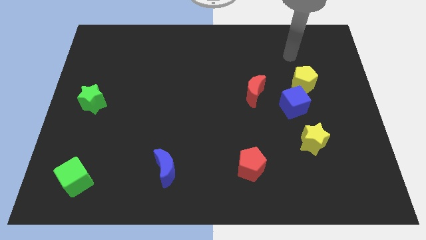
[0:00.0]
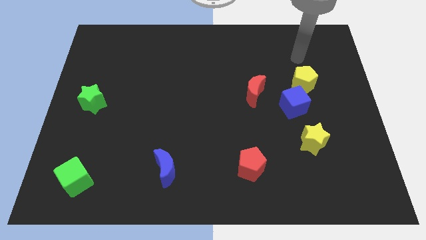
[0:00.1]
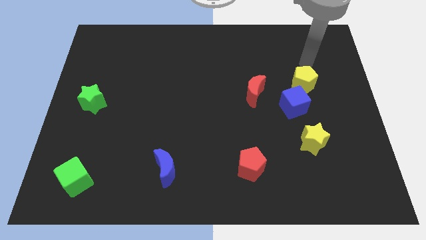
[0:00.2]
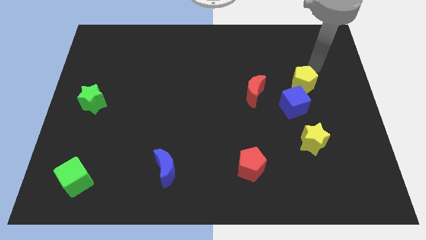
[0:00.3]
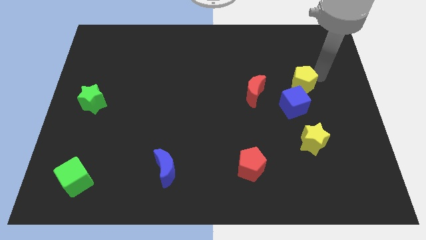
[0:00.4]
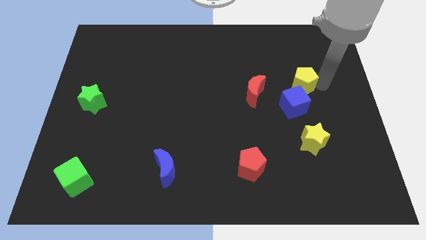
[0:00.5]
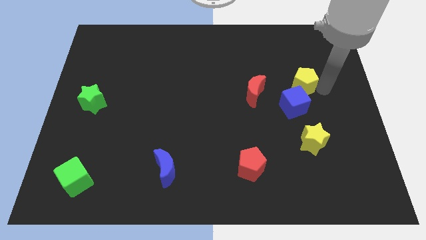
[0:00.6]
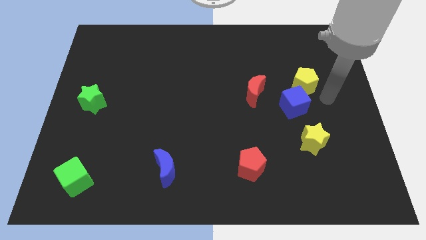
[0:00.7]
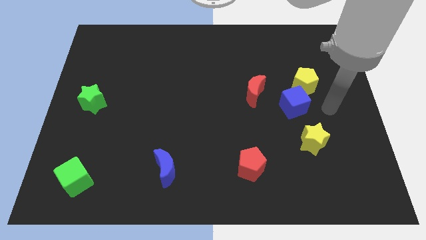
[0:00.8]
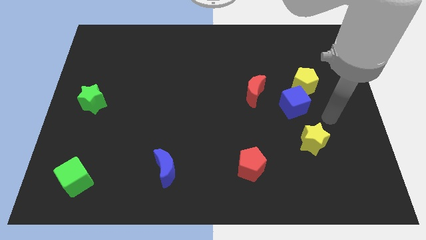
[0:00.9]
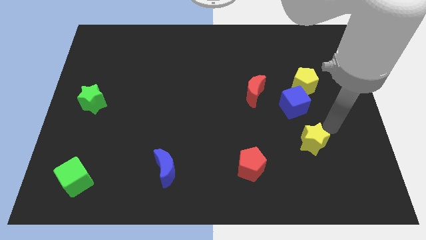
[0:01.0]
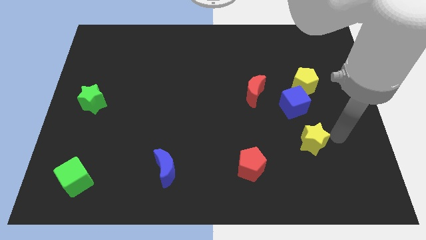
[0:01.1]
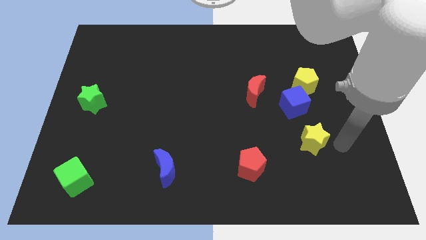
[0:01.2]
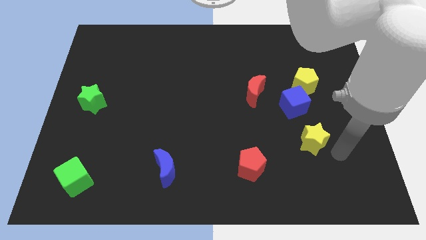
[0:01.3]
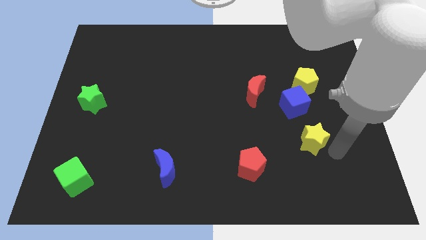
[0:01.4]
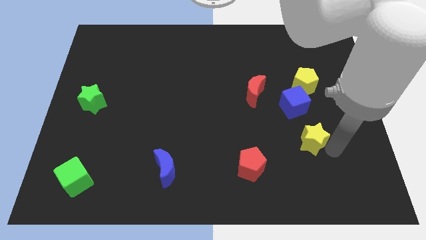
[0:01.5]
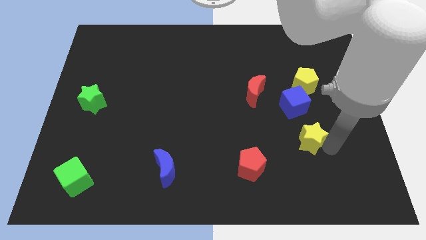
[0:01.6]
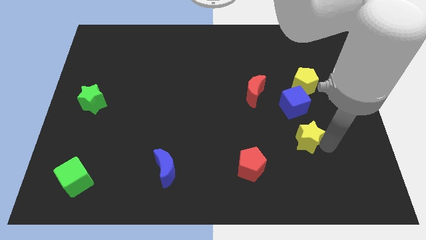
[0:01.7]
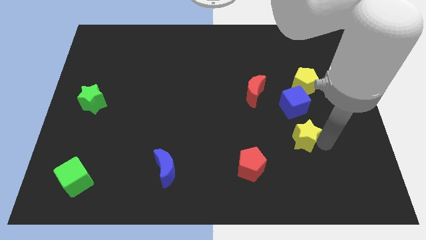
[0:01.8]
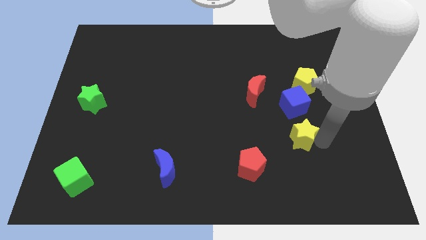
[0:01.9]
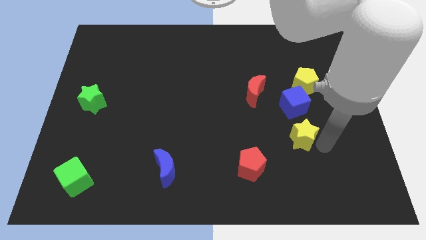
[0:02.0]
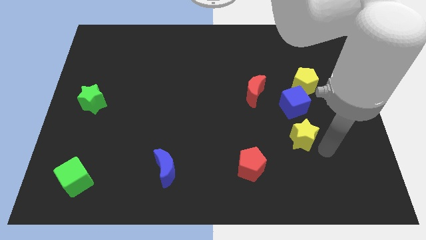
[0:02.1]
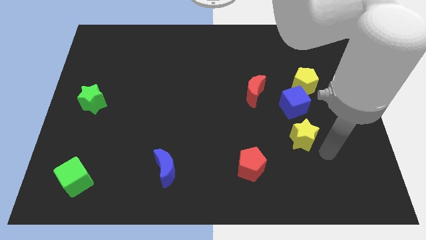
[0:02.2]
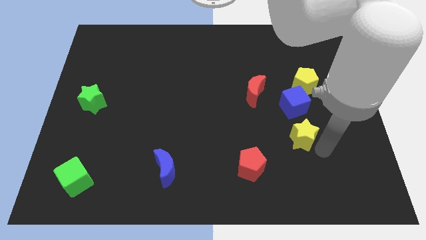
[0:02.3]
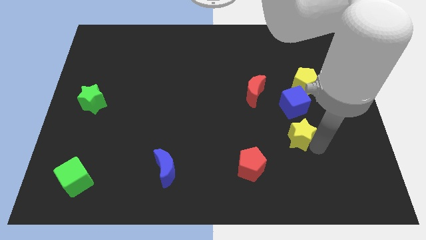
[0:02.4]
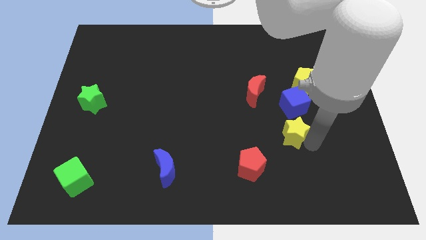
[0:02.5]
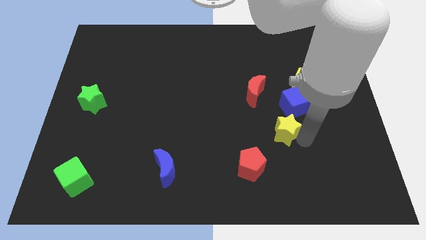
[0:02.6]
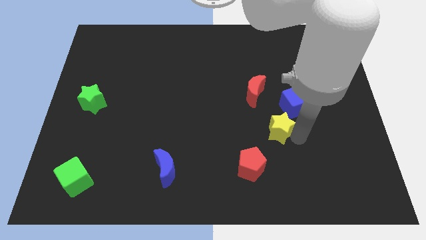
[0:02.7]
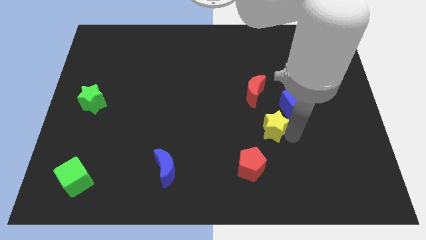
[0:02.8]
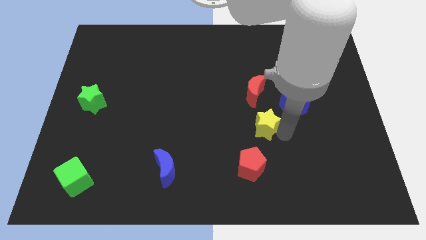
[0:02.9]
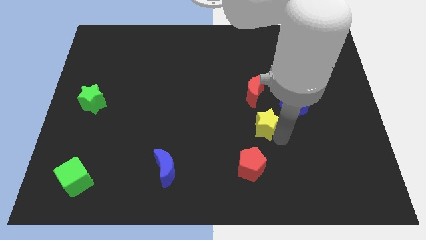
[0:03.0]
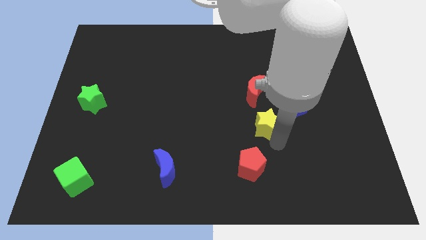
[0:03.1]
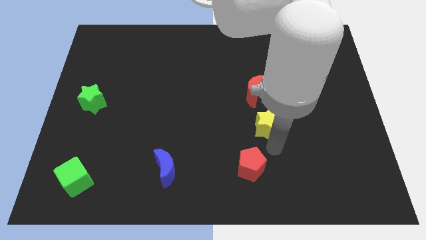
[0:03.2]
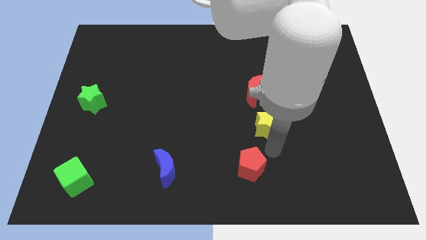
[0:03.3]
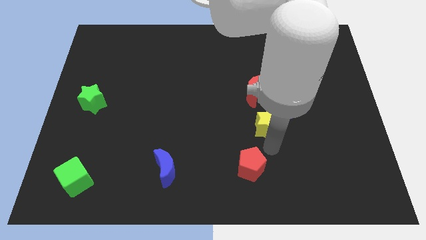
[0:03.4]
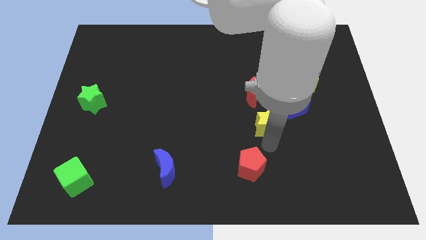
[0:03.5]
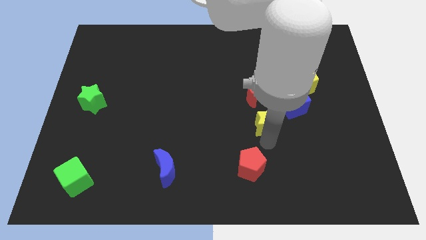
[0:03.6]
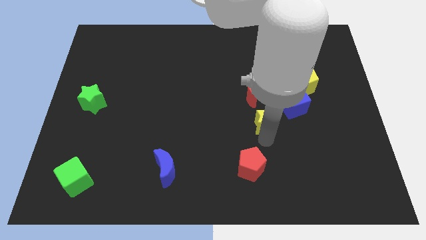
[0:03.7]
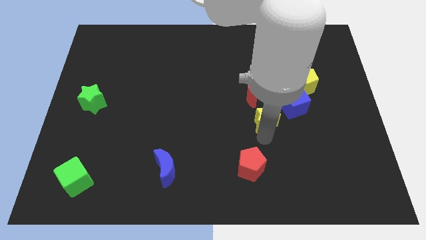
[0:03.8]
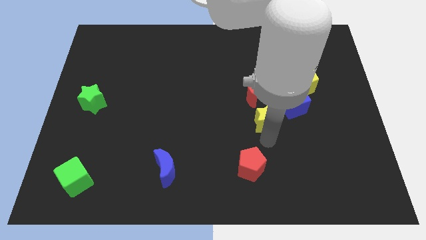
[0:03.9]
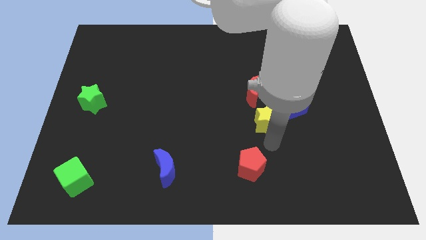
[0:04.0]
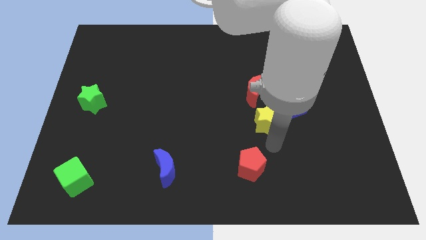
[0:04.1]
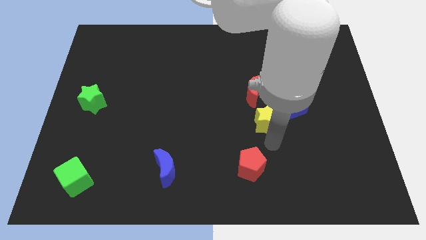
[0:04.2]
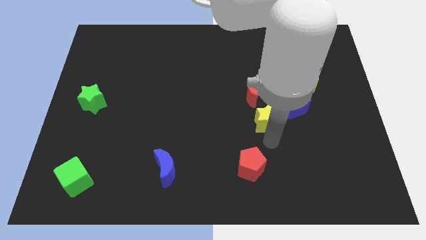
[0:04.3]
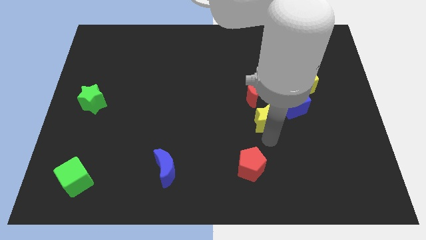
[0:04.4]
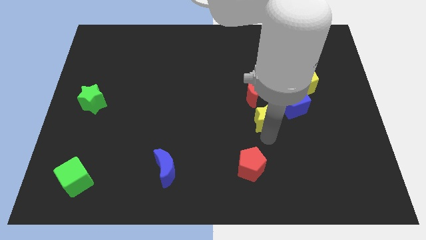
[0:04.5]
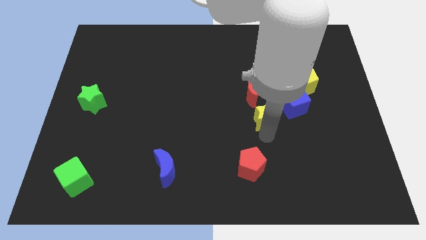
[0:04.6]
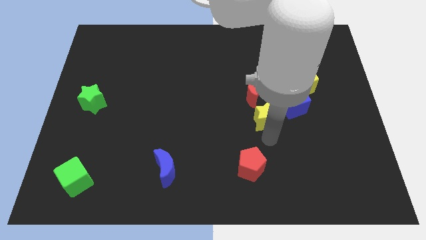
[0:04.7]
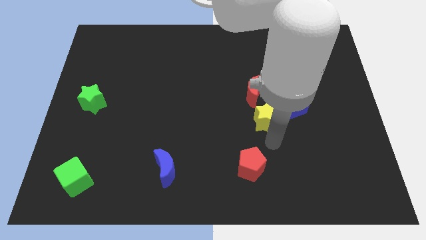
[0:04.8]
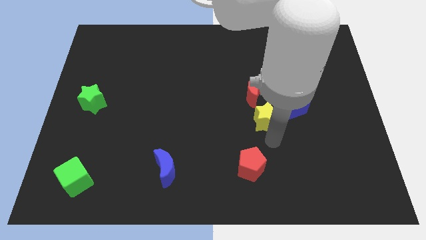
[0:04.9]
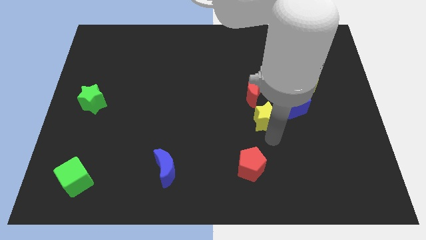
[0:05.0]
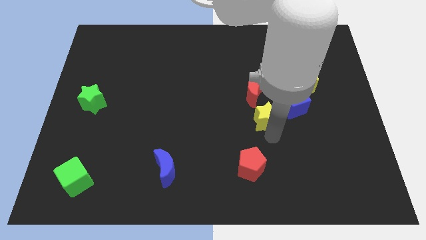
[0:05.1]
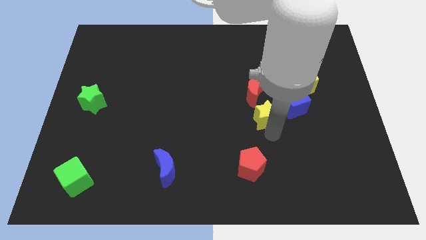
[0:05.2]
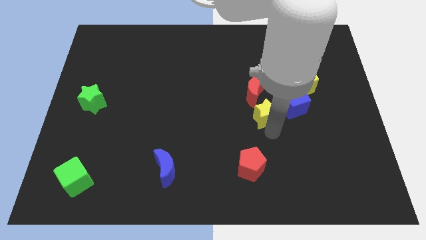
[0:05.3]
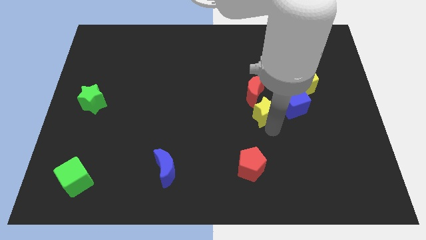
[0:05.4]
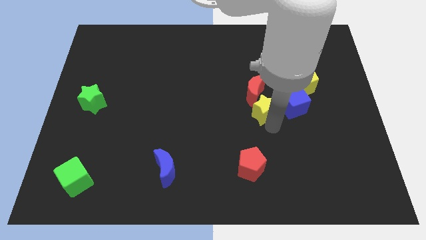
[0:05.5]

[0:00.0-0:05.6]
put the yellow star to the red moon

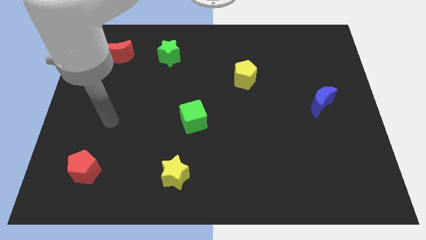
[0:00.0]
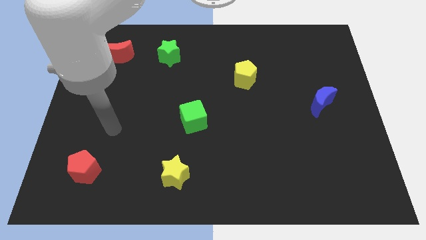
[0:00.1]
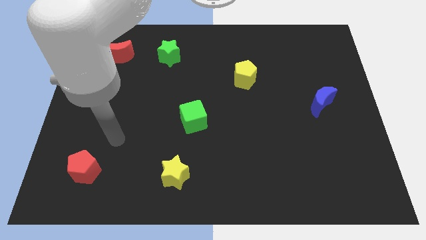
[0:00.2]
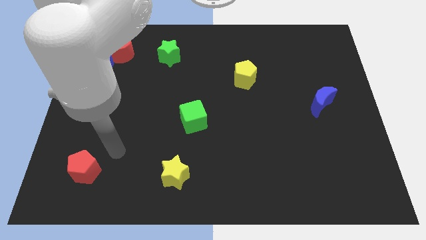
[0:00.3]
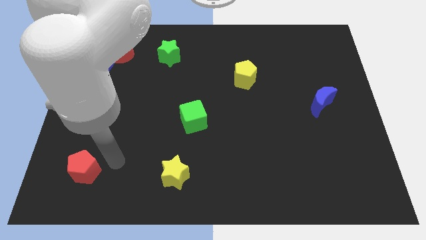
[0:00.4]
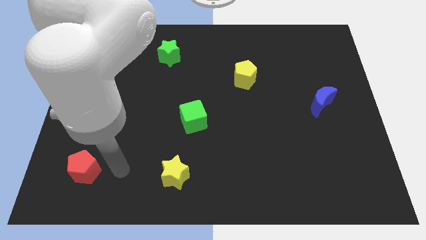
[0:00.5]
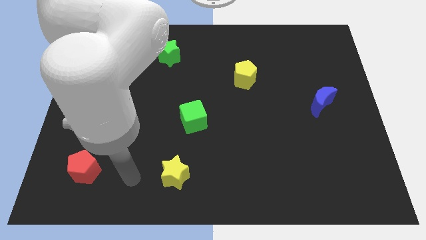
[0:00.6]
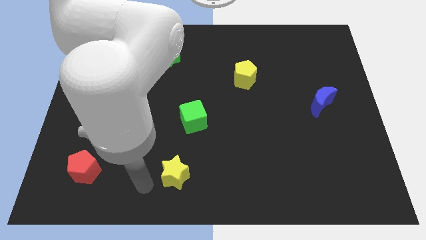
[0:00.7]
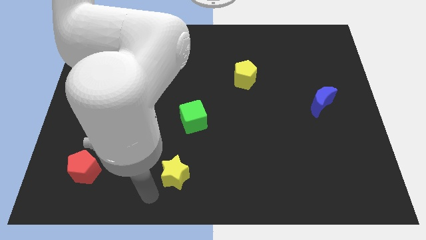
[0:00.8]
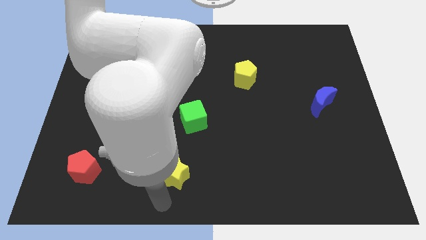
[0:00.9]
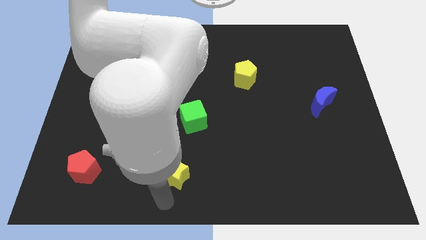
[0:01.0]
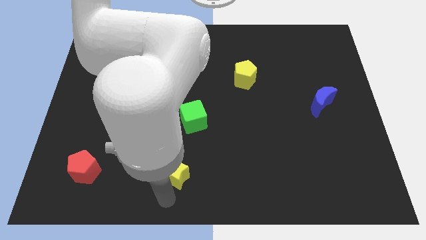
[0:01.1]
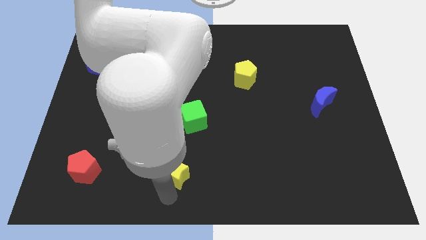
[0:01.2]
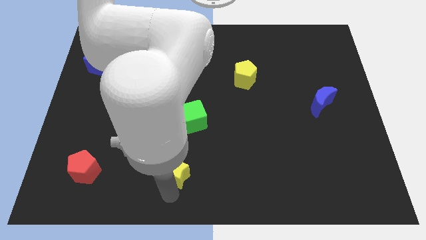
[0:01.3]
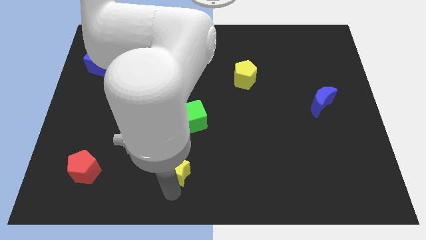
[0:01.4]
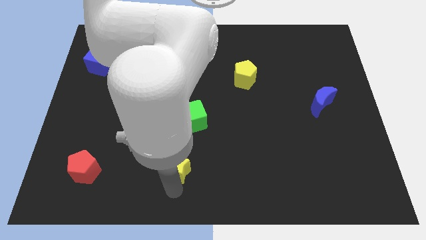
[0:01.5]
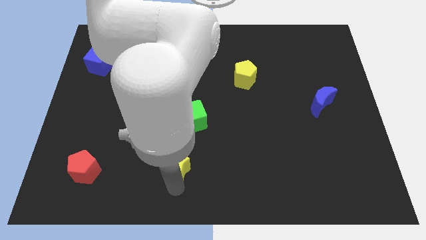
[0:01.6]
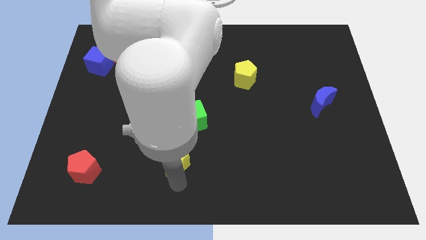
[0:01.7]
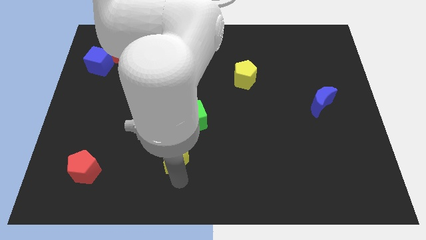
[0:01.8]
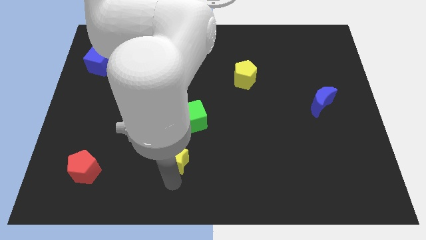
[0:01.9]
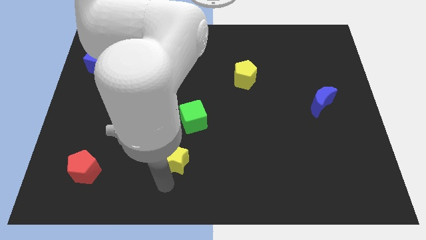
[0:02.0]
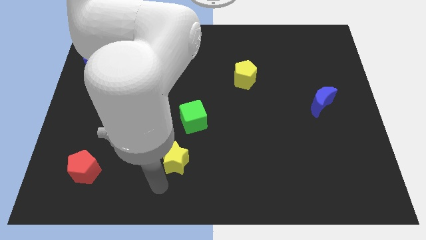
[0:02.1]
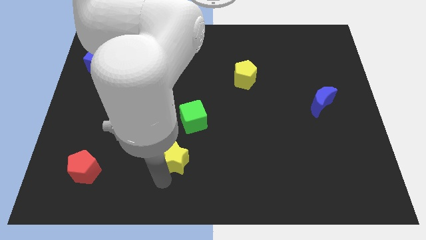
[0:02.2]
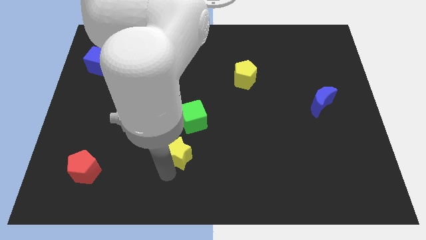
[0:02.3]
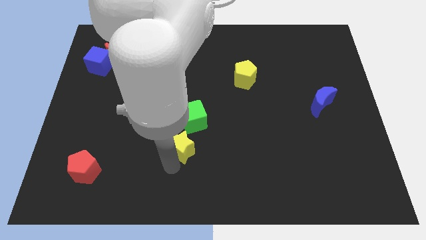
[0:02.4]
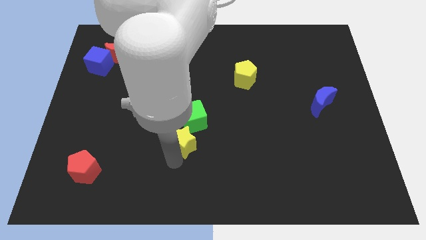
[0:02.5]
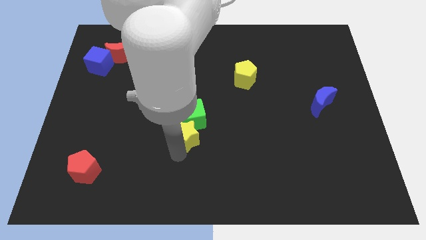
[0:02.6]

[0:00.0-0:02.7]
push the yellow star next to the green cube
